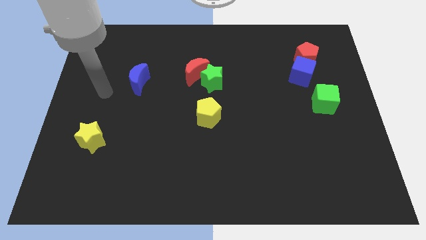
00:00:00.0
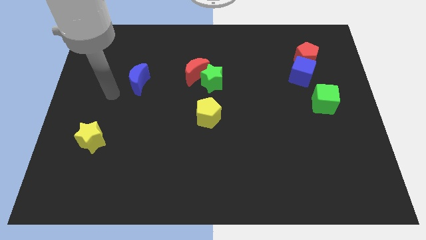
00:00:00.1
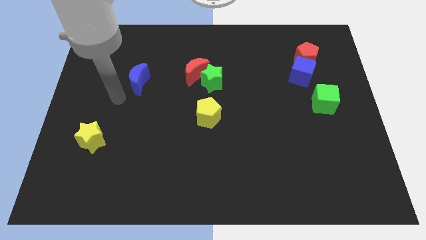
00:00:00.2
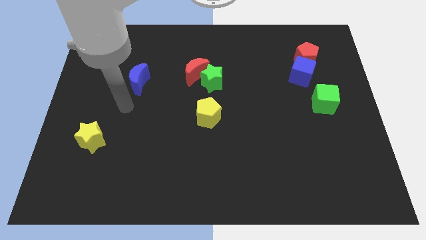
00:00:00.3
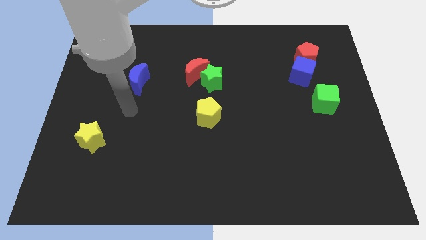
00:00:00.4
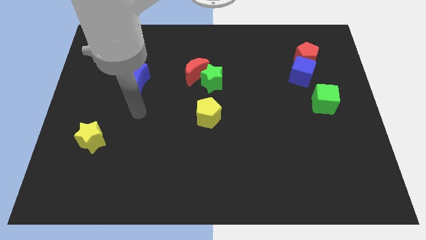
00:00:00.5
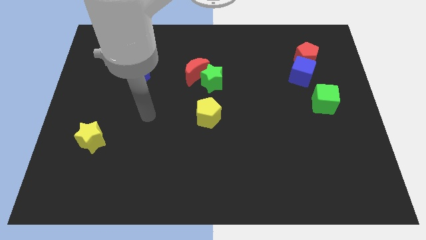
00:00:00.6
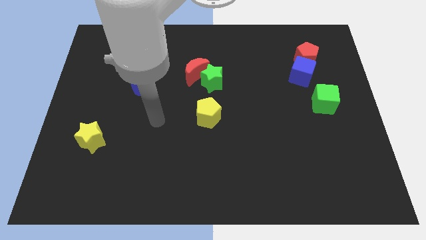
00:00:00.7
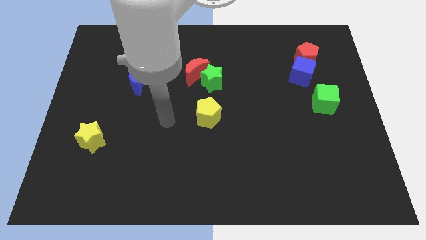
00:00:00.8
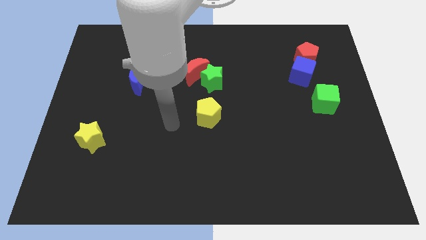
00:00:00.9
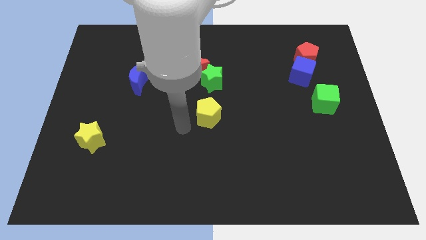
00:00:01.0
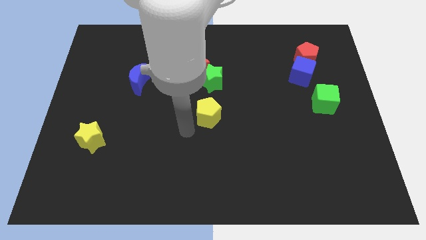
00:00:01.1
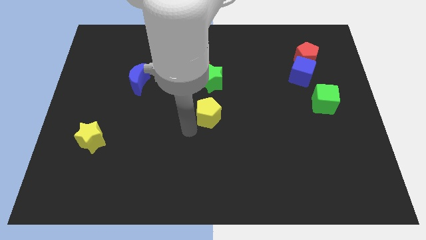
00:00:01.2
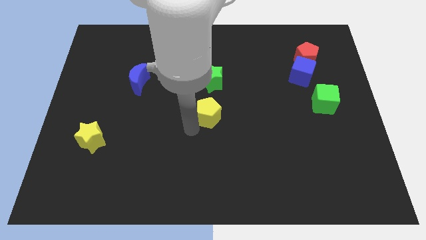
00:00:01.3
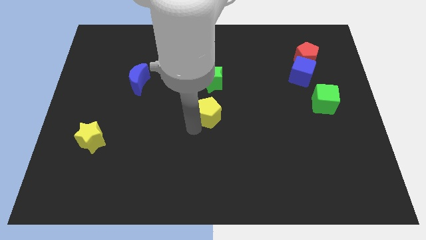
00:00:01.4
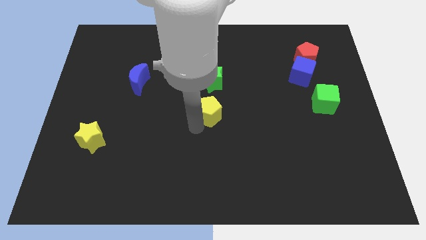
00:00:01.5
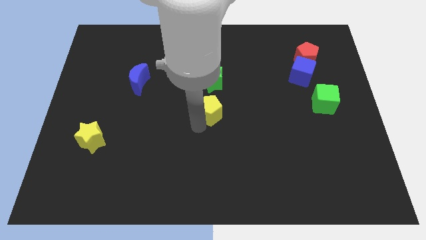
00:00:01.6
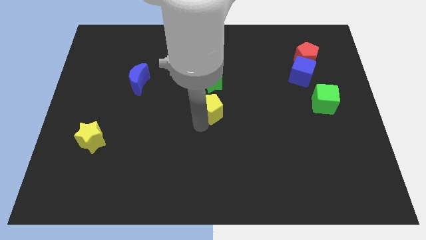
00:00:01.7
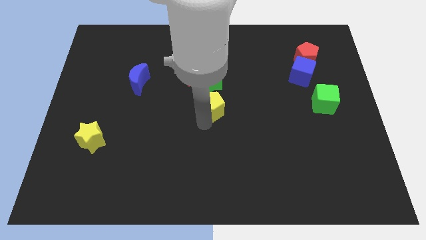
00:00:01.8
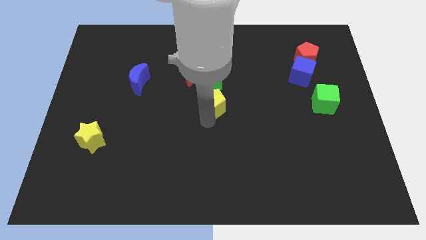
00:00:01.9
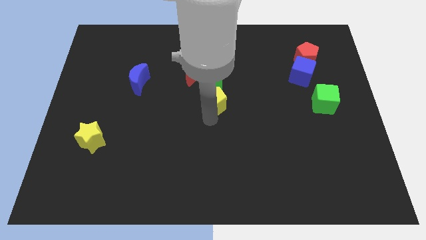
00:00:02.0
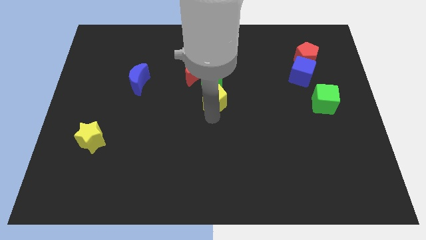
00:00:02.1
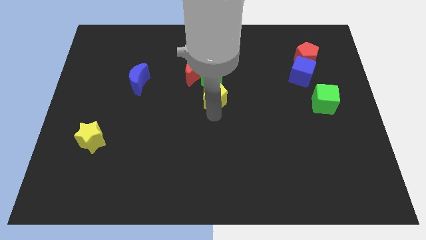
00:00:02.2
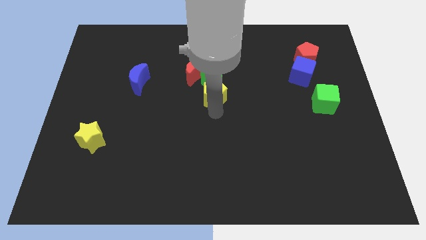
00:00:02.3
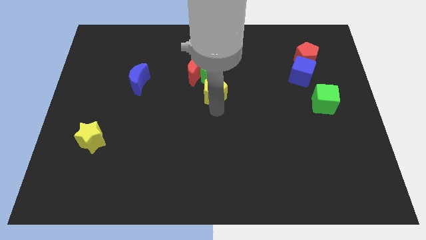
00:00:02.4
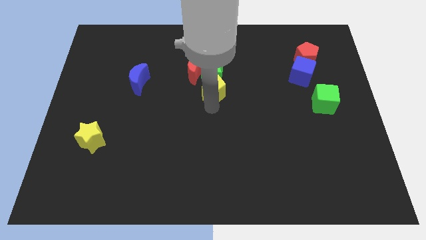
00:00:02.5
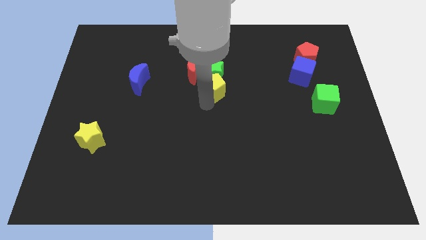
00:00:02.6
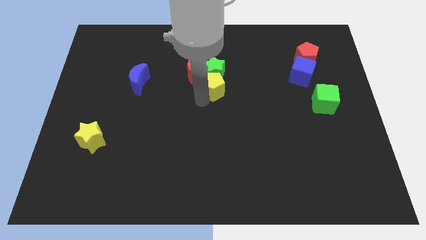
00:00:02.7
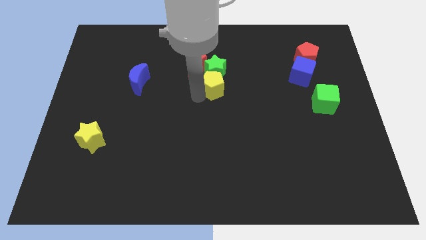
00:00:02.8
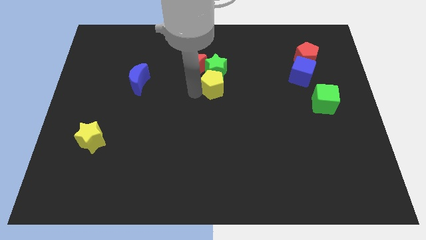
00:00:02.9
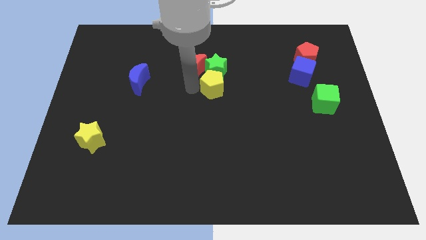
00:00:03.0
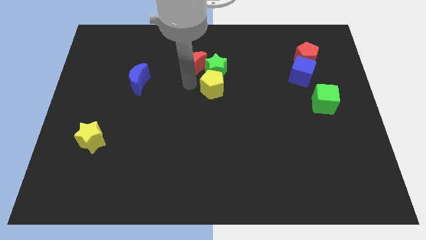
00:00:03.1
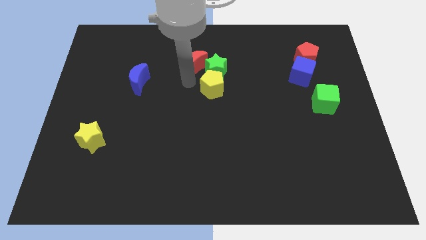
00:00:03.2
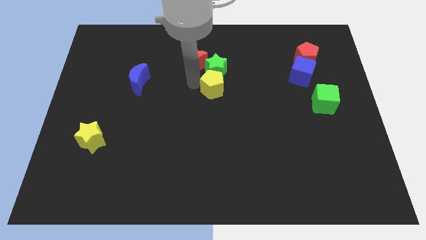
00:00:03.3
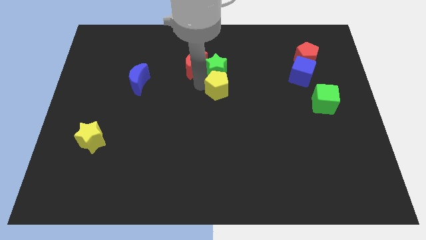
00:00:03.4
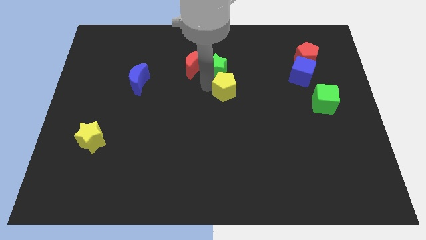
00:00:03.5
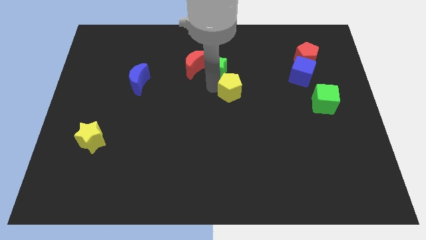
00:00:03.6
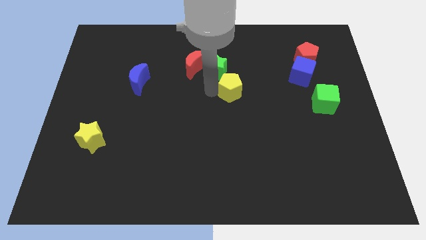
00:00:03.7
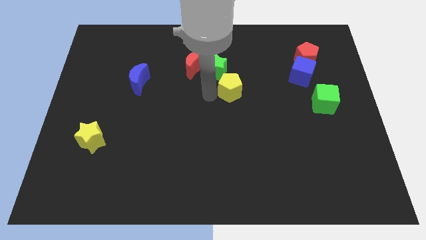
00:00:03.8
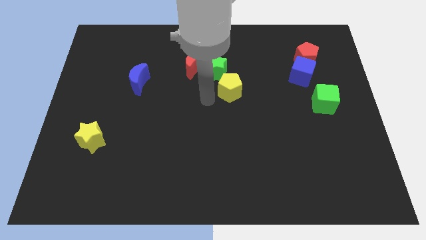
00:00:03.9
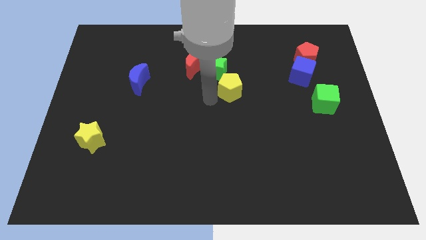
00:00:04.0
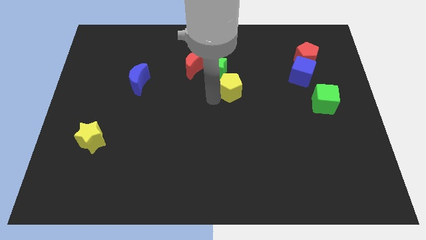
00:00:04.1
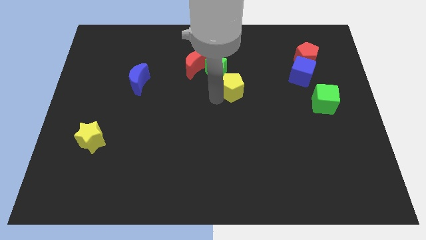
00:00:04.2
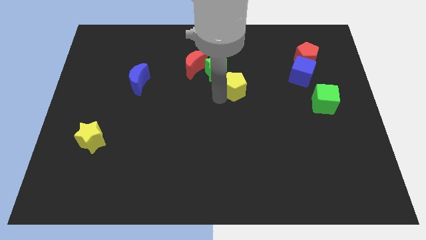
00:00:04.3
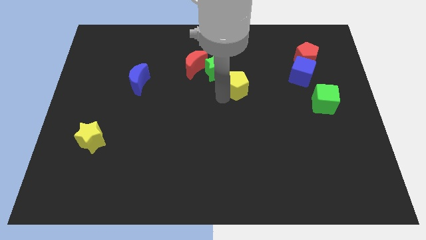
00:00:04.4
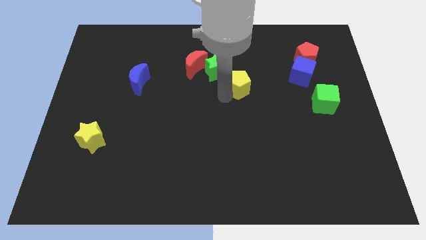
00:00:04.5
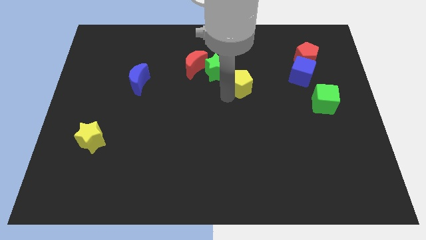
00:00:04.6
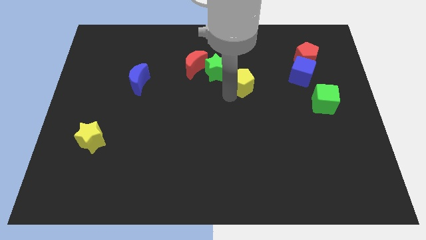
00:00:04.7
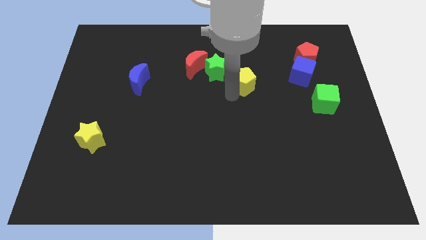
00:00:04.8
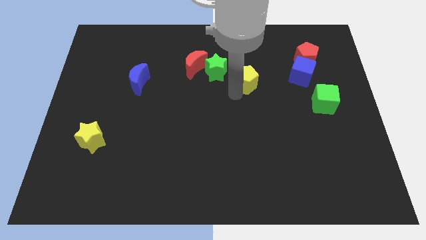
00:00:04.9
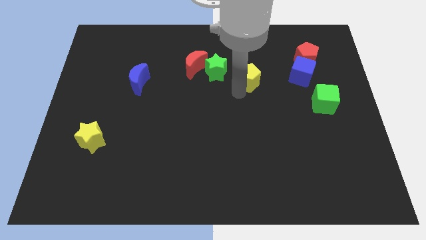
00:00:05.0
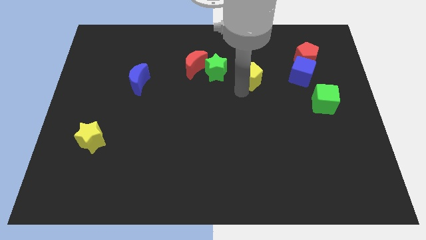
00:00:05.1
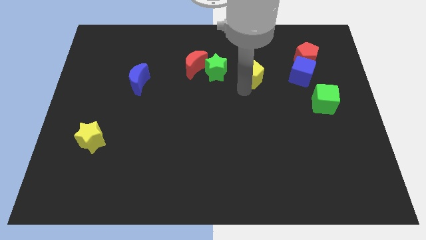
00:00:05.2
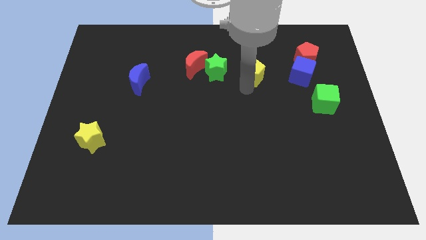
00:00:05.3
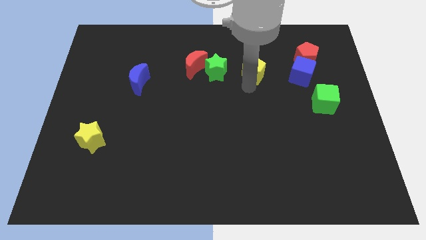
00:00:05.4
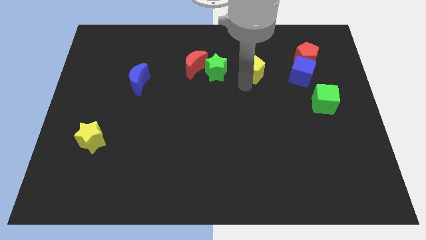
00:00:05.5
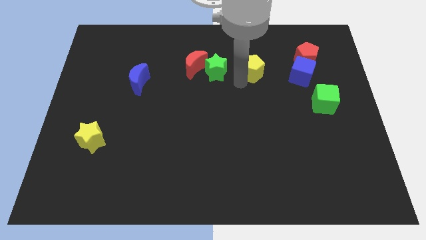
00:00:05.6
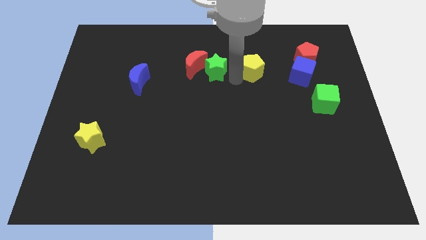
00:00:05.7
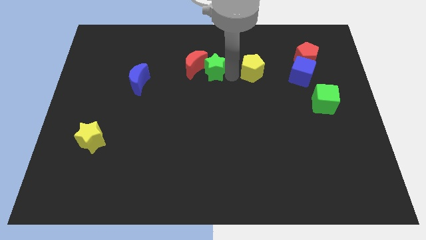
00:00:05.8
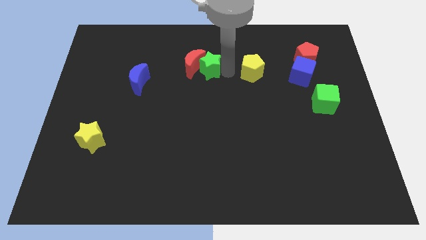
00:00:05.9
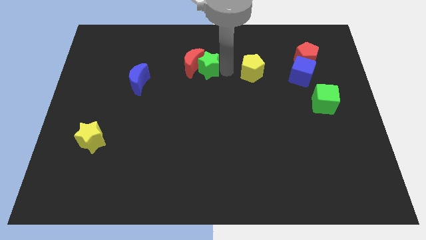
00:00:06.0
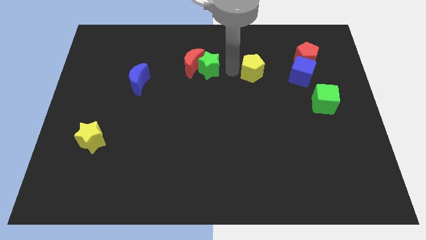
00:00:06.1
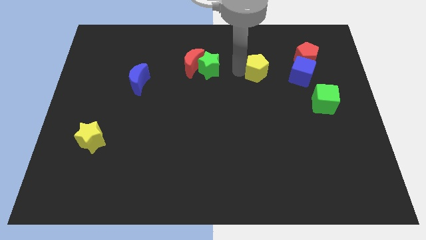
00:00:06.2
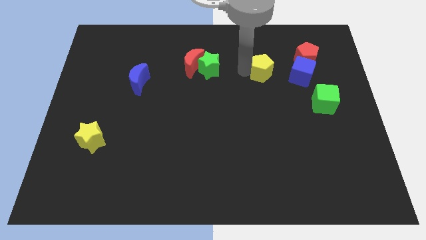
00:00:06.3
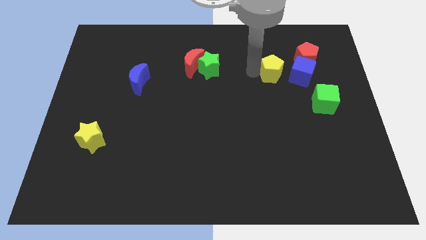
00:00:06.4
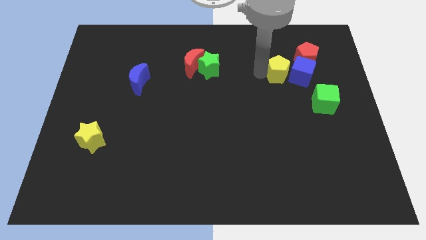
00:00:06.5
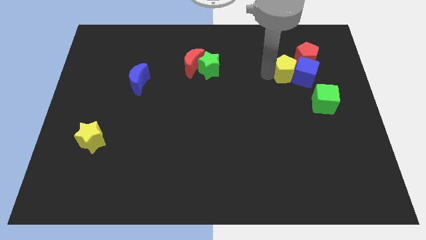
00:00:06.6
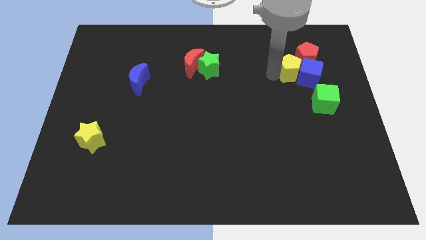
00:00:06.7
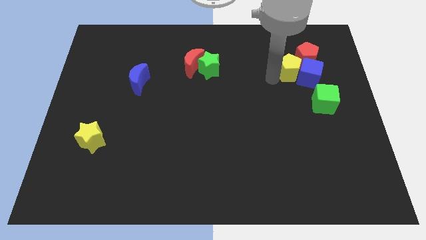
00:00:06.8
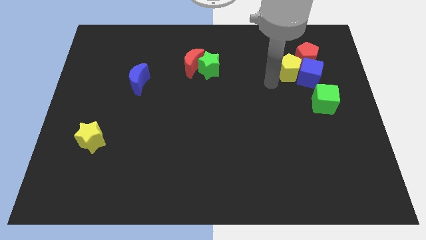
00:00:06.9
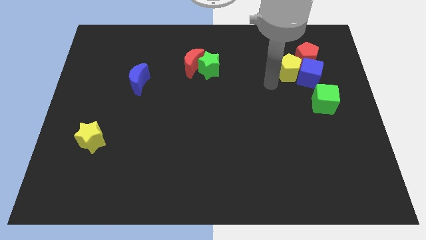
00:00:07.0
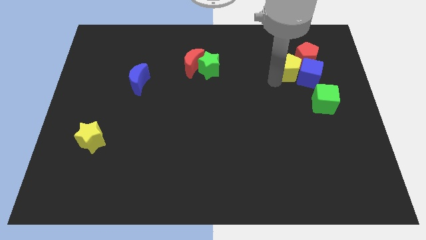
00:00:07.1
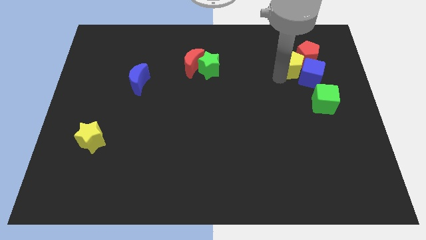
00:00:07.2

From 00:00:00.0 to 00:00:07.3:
put the yellow pentagon towards the red pentagon
